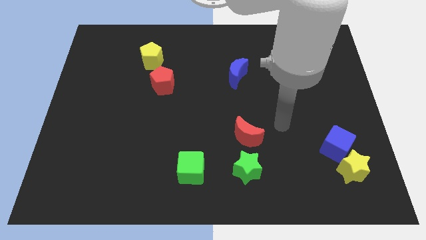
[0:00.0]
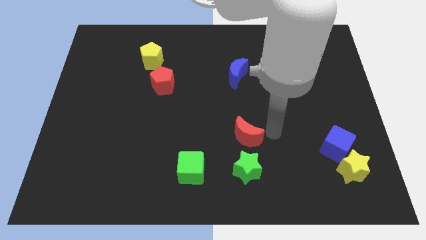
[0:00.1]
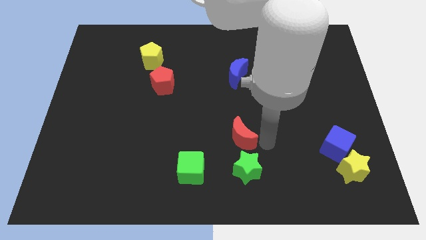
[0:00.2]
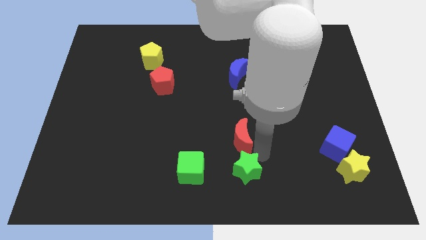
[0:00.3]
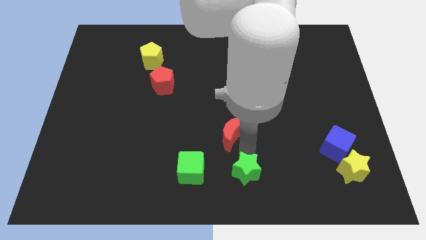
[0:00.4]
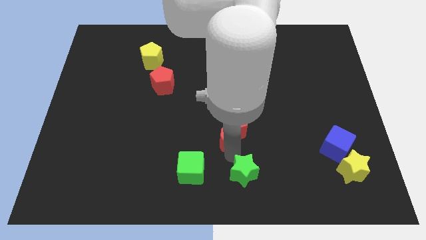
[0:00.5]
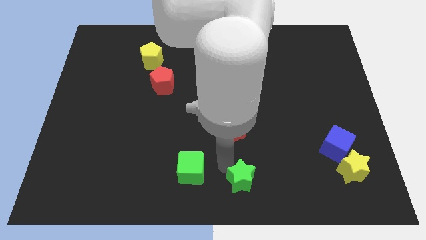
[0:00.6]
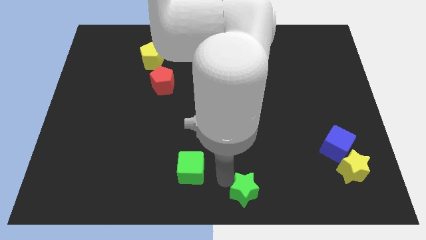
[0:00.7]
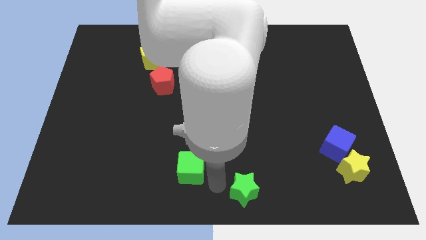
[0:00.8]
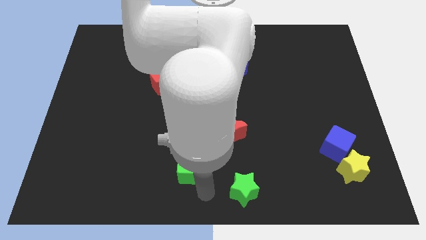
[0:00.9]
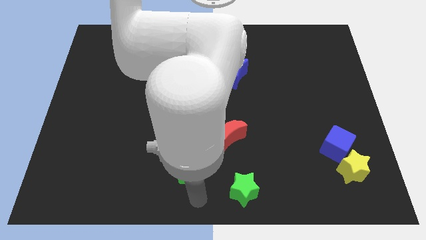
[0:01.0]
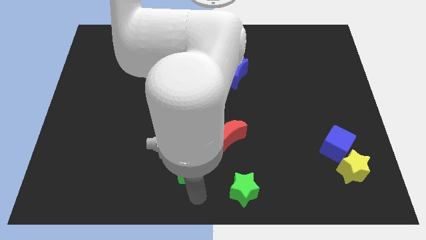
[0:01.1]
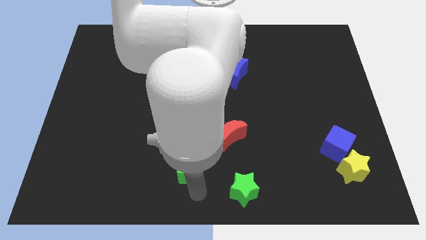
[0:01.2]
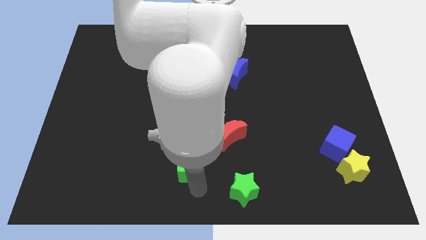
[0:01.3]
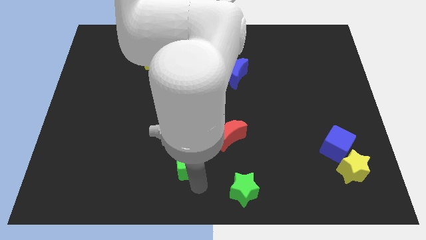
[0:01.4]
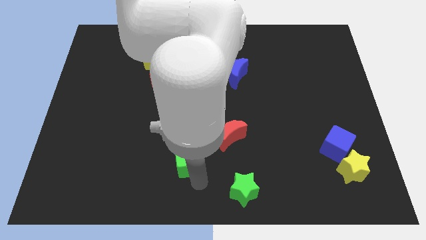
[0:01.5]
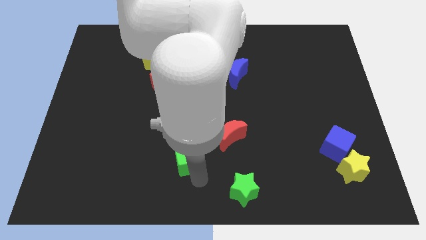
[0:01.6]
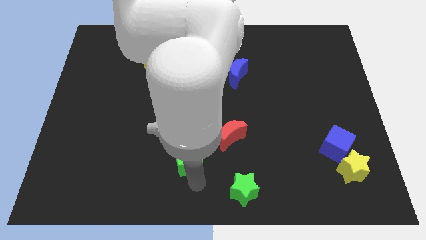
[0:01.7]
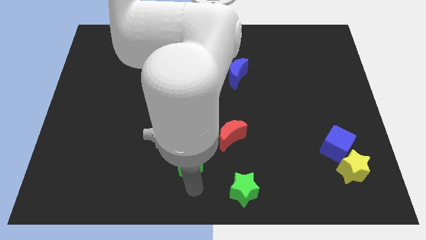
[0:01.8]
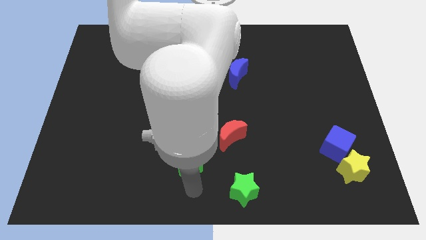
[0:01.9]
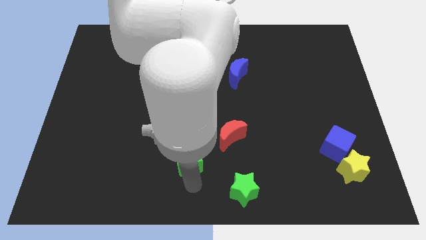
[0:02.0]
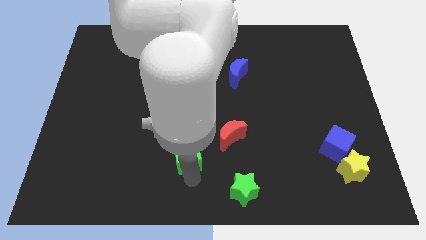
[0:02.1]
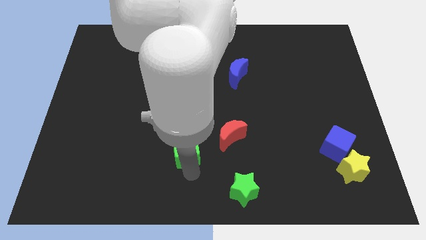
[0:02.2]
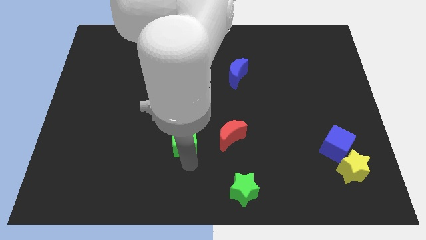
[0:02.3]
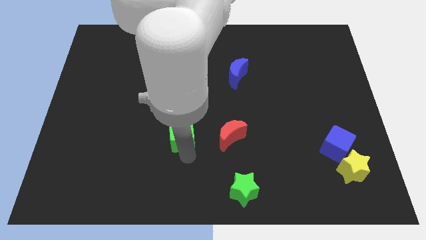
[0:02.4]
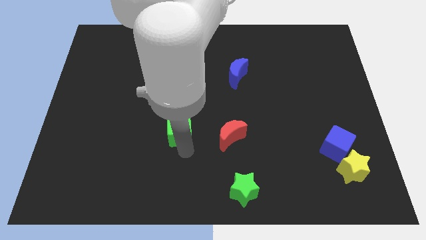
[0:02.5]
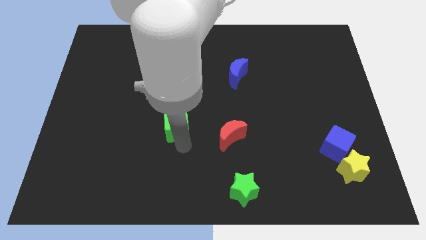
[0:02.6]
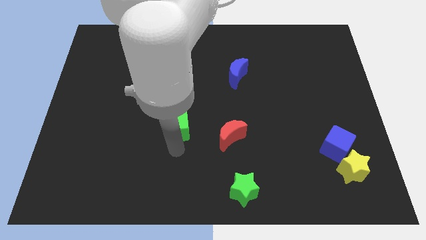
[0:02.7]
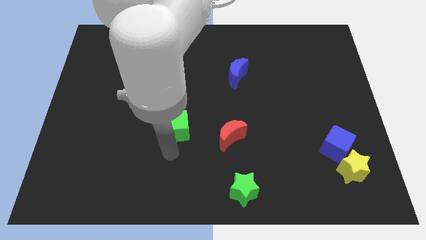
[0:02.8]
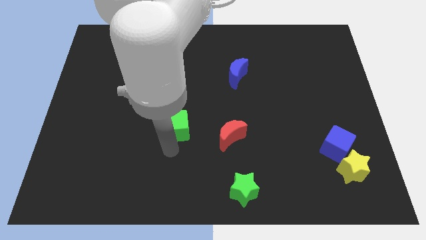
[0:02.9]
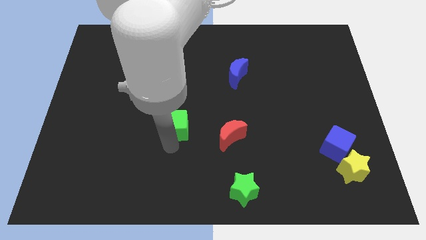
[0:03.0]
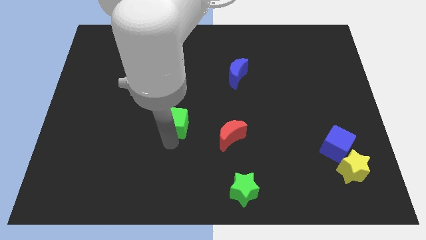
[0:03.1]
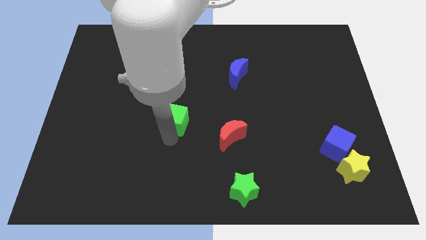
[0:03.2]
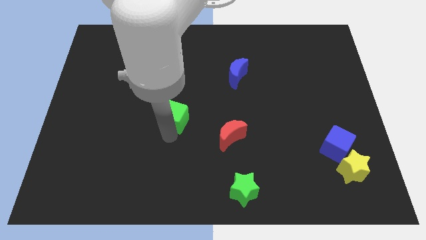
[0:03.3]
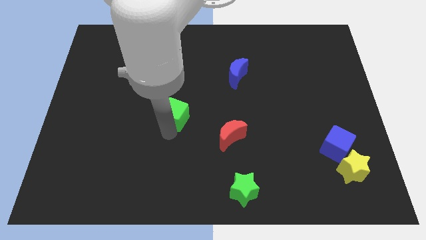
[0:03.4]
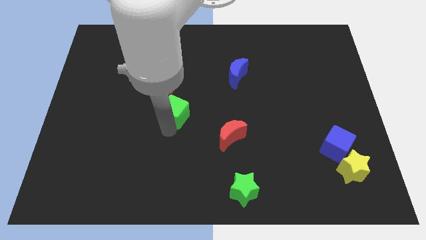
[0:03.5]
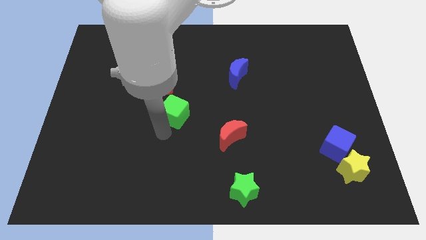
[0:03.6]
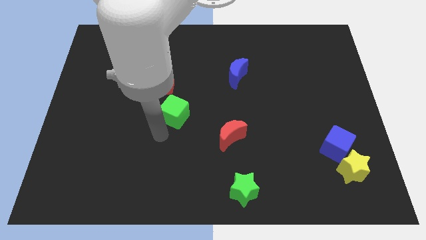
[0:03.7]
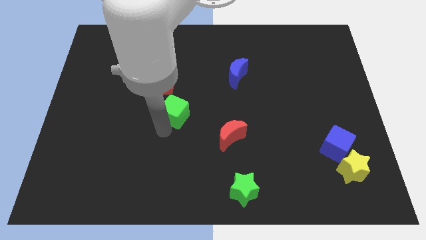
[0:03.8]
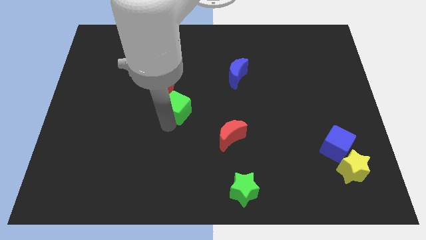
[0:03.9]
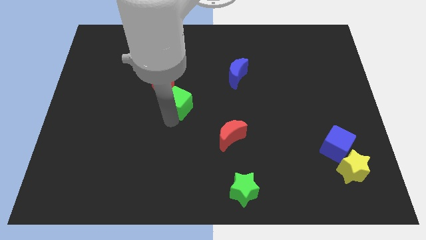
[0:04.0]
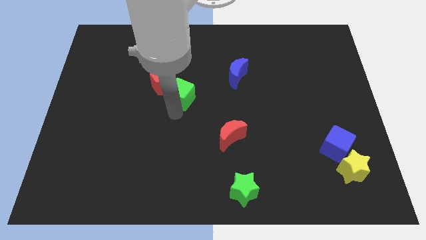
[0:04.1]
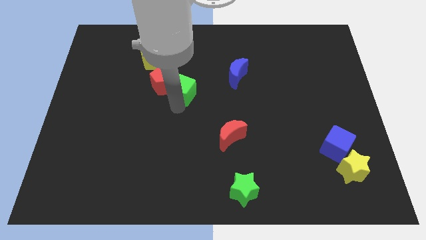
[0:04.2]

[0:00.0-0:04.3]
slide the green cube upwards

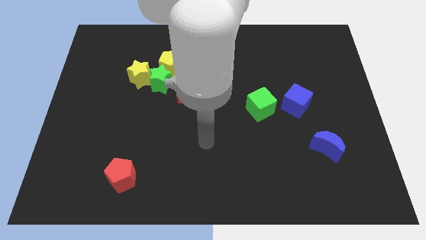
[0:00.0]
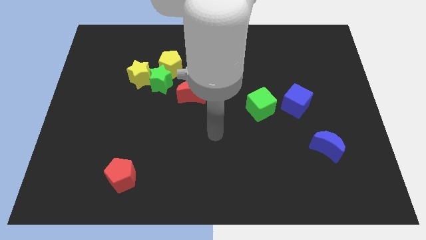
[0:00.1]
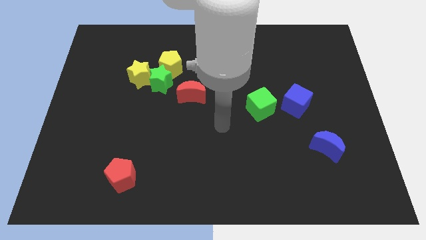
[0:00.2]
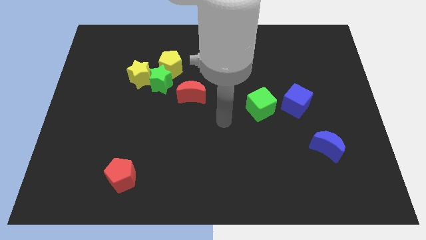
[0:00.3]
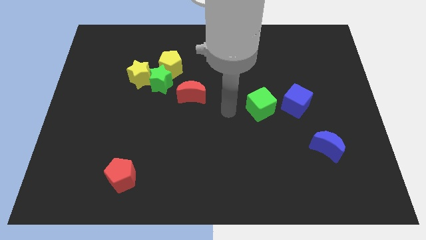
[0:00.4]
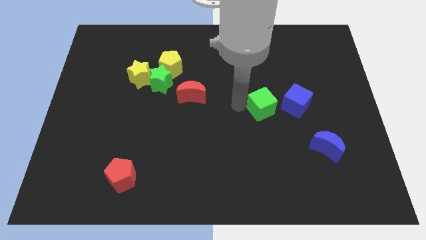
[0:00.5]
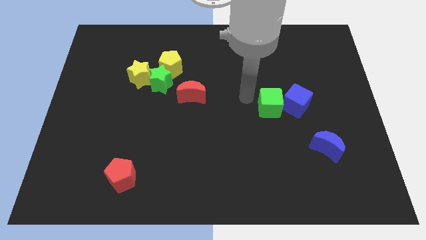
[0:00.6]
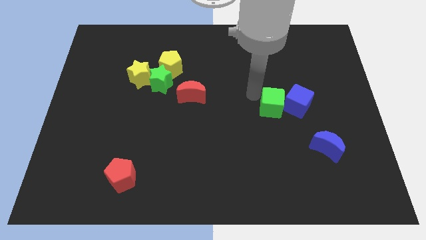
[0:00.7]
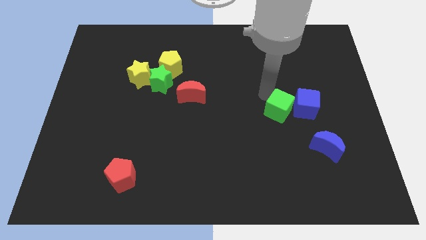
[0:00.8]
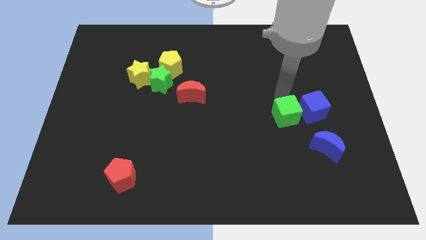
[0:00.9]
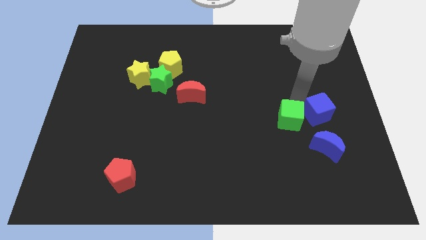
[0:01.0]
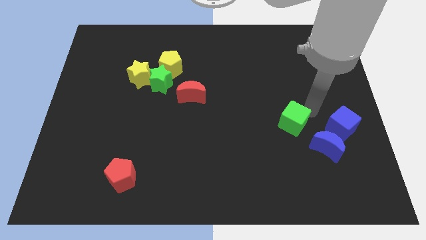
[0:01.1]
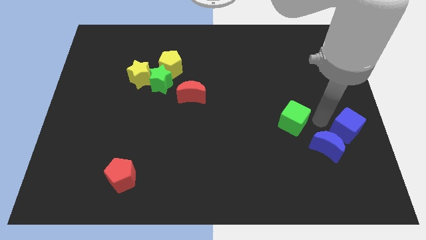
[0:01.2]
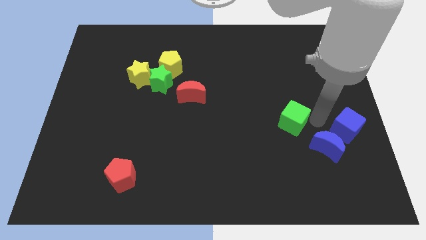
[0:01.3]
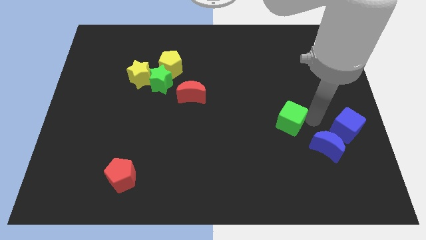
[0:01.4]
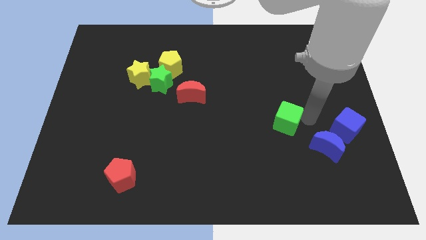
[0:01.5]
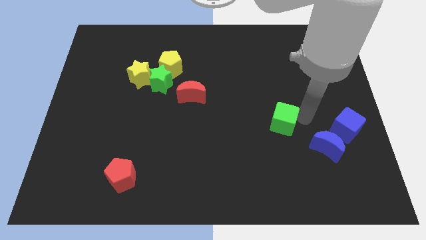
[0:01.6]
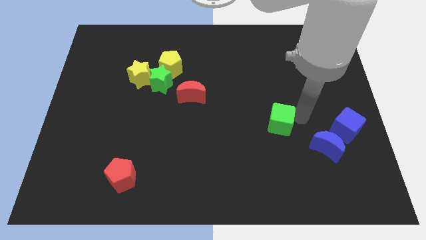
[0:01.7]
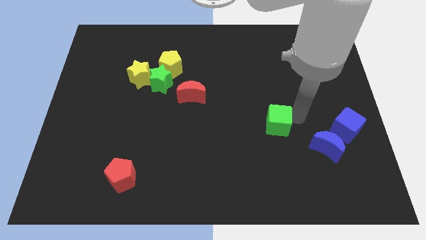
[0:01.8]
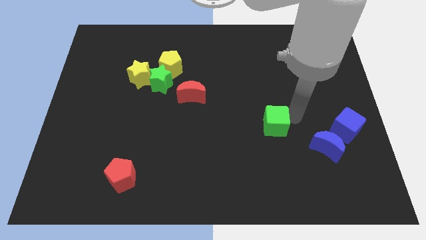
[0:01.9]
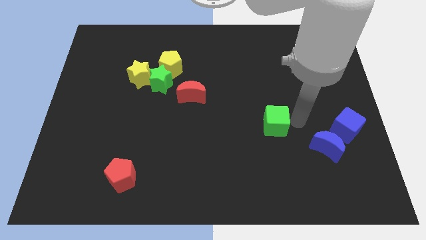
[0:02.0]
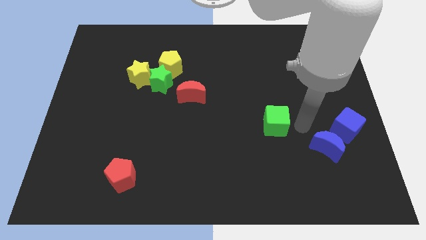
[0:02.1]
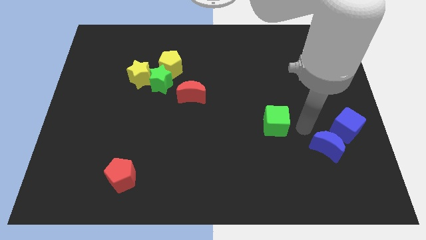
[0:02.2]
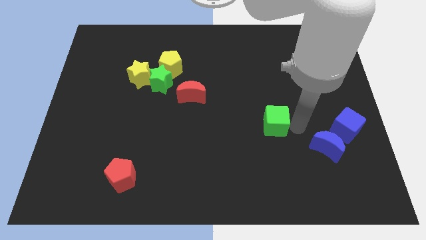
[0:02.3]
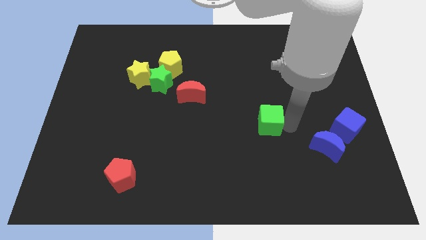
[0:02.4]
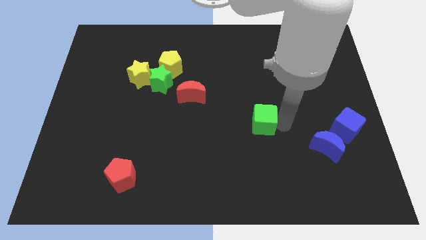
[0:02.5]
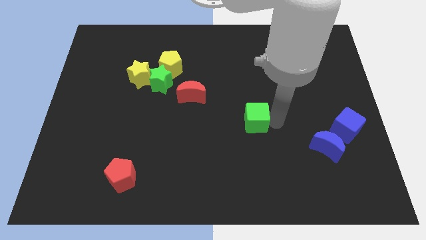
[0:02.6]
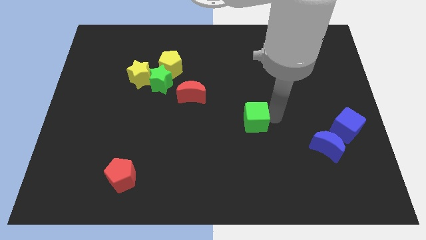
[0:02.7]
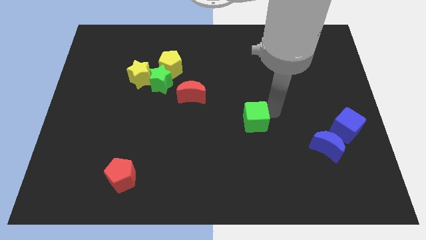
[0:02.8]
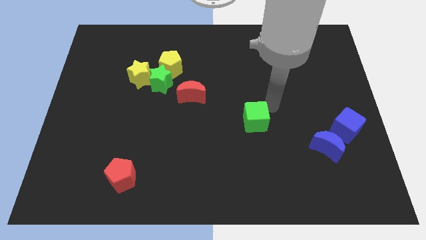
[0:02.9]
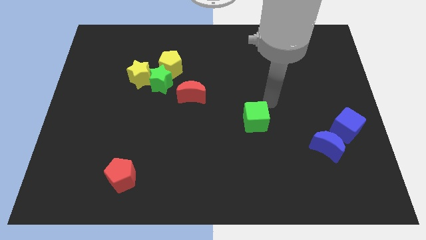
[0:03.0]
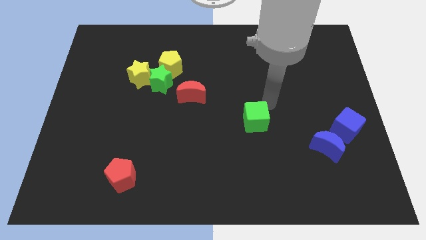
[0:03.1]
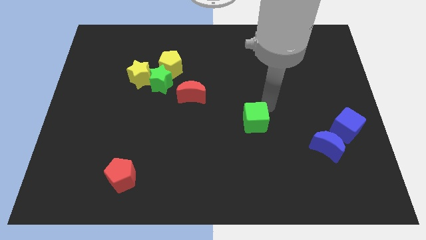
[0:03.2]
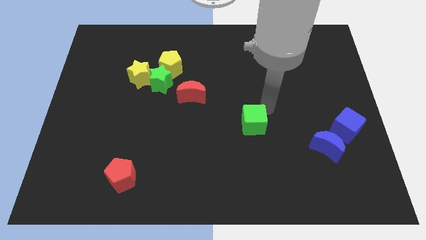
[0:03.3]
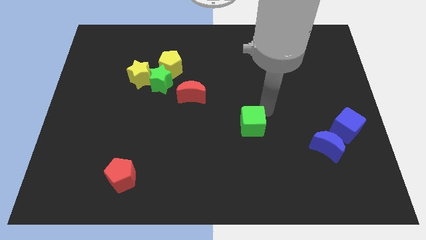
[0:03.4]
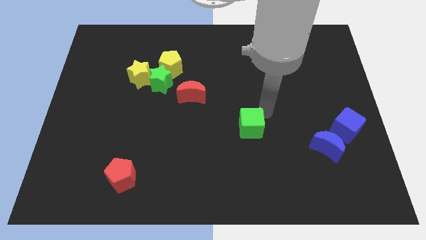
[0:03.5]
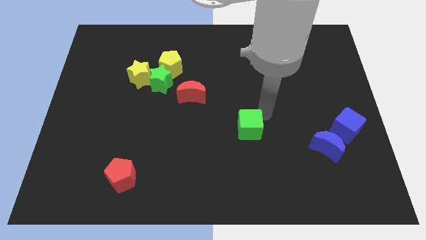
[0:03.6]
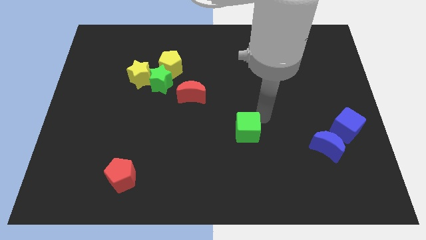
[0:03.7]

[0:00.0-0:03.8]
slide the green cube slightly down and then to the left
